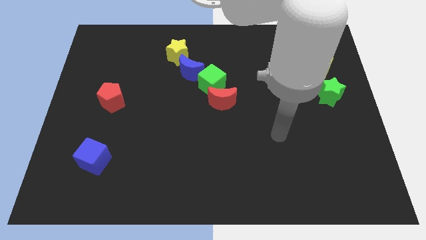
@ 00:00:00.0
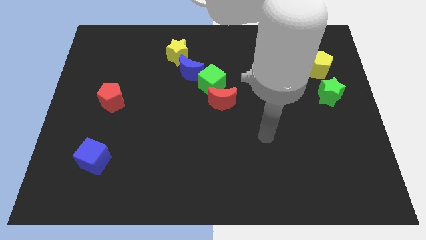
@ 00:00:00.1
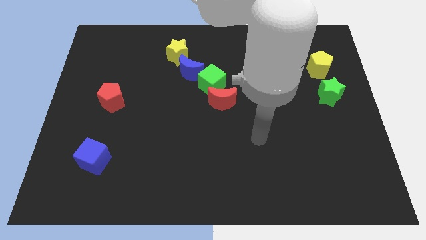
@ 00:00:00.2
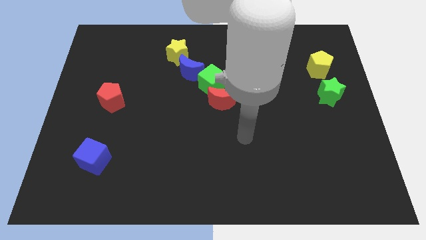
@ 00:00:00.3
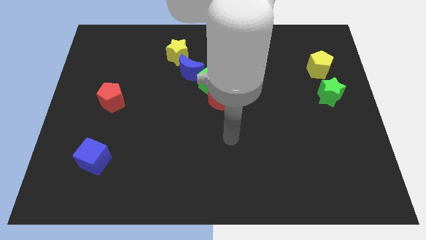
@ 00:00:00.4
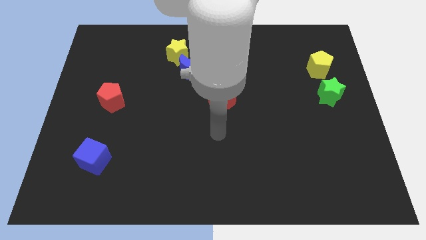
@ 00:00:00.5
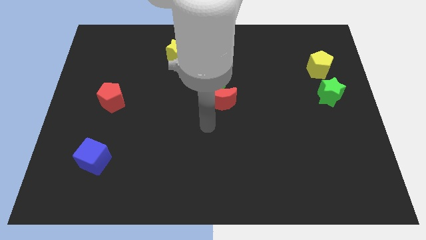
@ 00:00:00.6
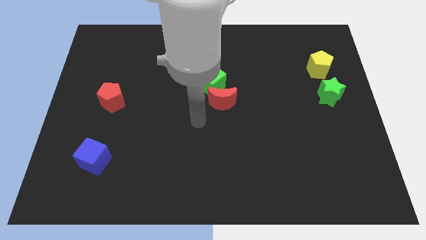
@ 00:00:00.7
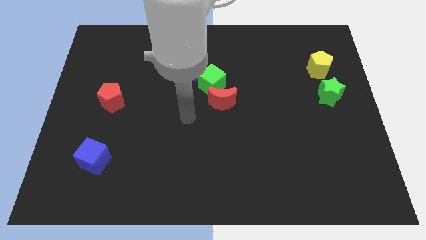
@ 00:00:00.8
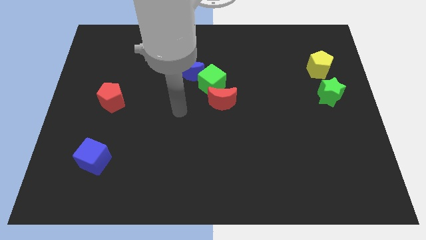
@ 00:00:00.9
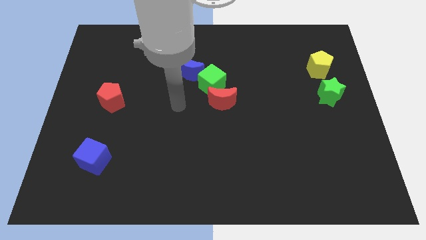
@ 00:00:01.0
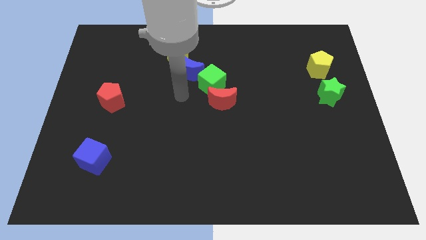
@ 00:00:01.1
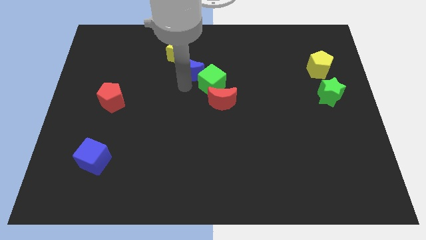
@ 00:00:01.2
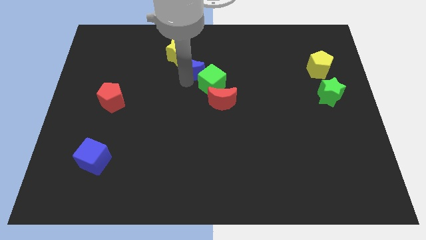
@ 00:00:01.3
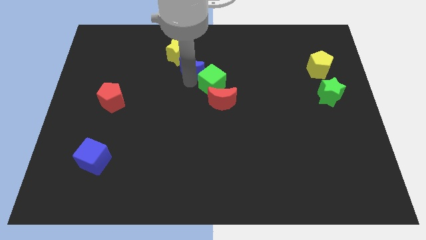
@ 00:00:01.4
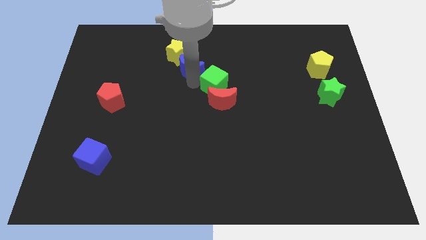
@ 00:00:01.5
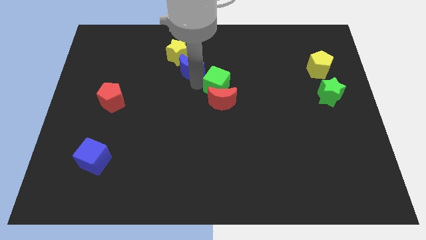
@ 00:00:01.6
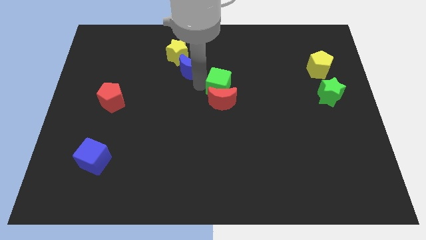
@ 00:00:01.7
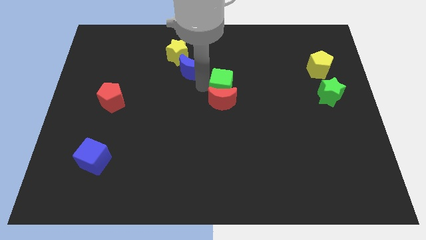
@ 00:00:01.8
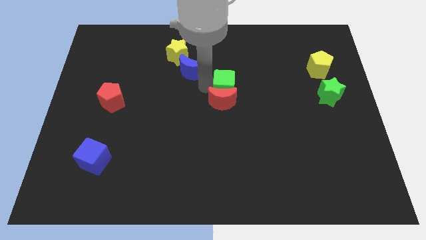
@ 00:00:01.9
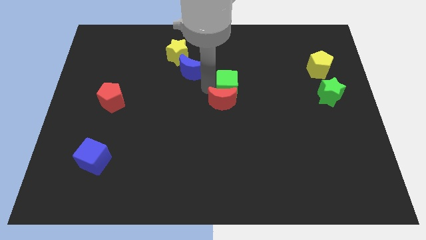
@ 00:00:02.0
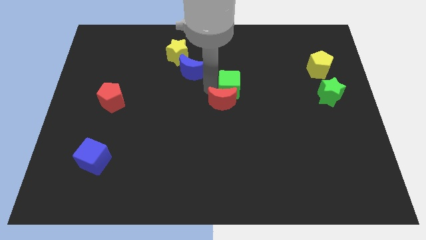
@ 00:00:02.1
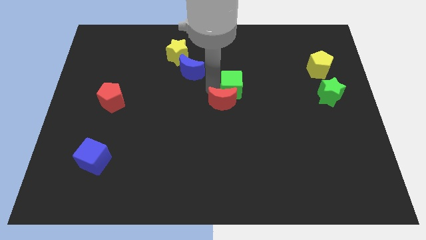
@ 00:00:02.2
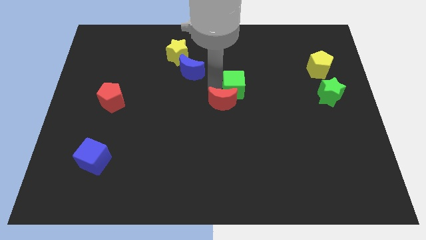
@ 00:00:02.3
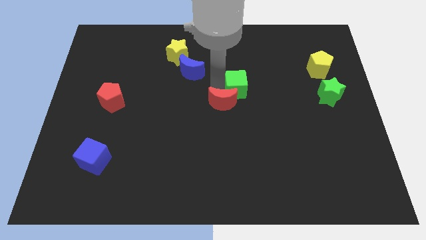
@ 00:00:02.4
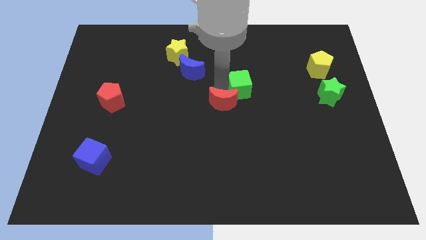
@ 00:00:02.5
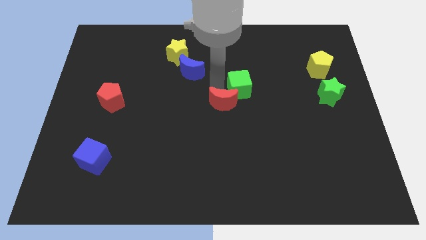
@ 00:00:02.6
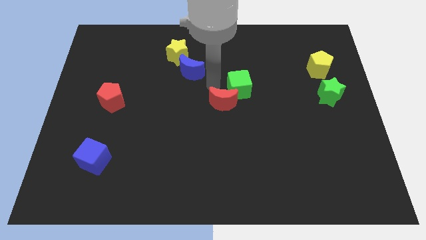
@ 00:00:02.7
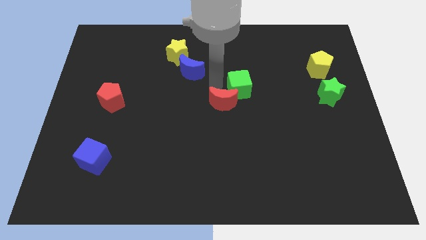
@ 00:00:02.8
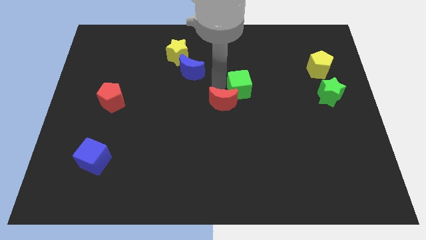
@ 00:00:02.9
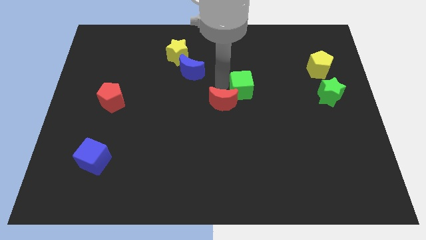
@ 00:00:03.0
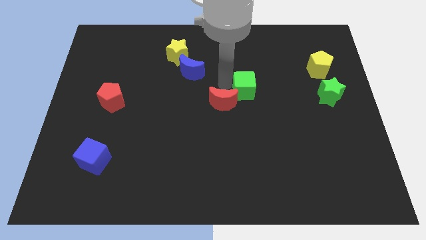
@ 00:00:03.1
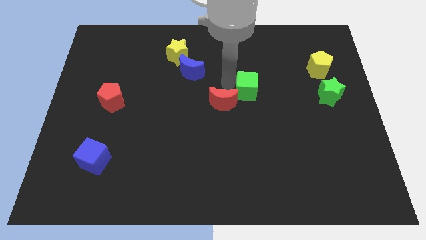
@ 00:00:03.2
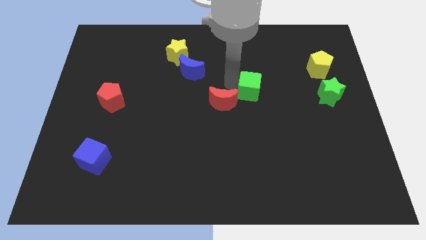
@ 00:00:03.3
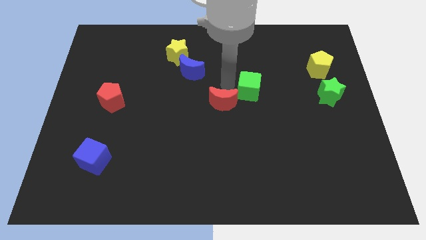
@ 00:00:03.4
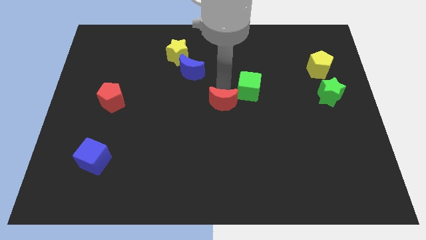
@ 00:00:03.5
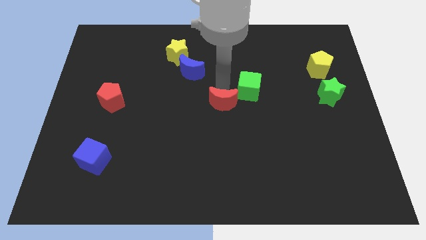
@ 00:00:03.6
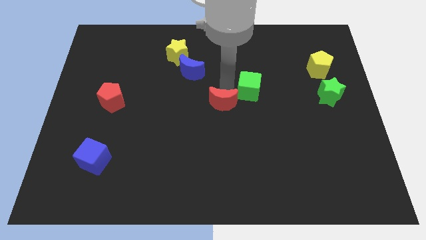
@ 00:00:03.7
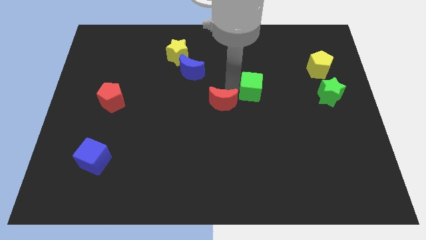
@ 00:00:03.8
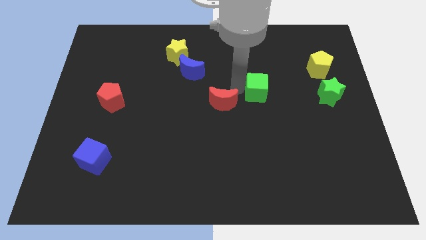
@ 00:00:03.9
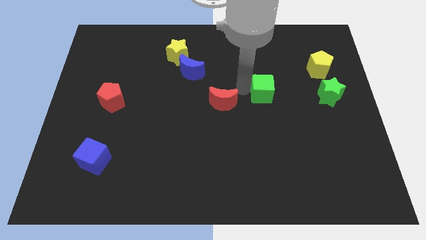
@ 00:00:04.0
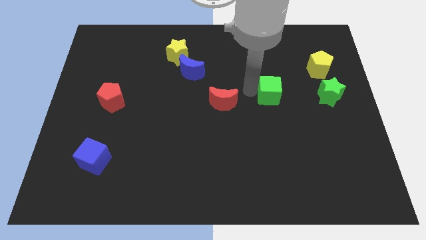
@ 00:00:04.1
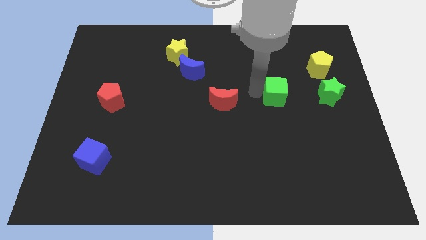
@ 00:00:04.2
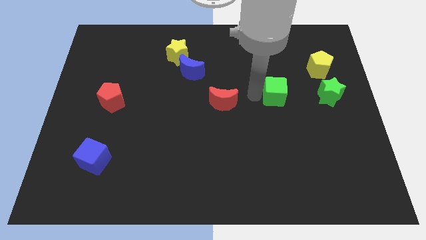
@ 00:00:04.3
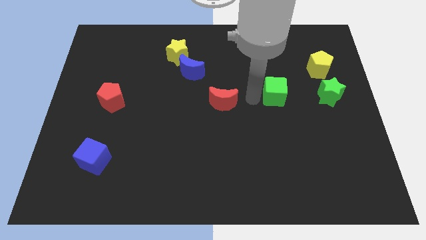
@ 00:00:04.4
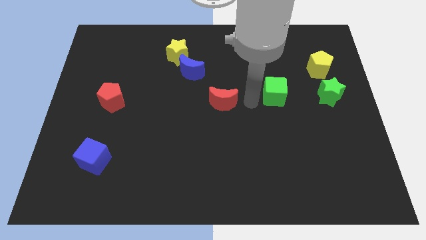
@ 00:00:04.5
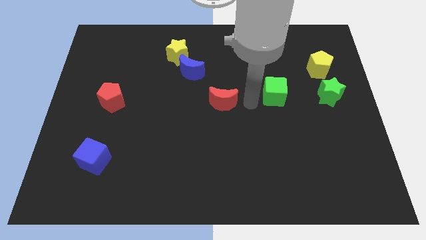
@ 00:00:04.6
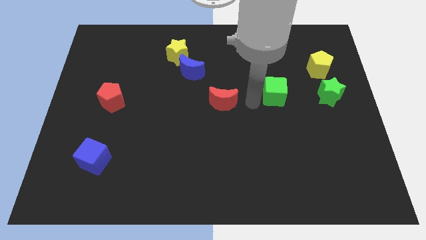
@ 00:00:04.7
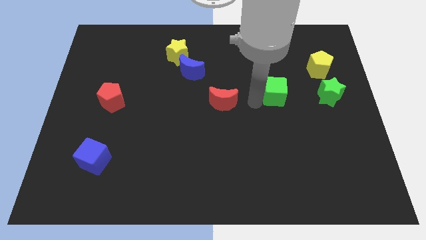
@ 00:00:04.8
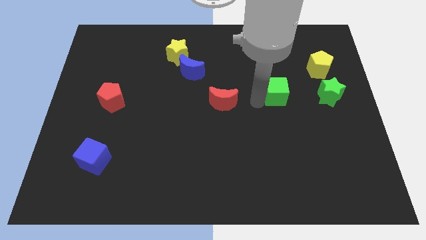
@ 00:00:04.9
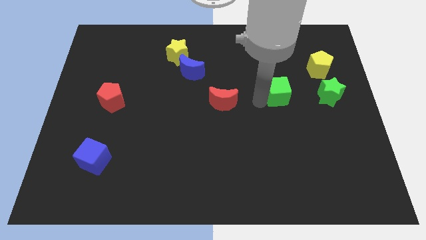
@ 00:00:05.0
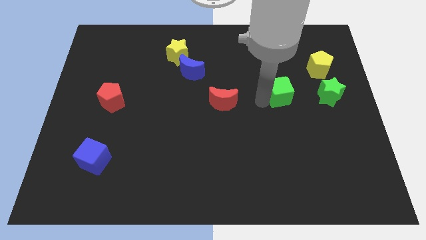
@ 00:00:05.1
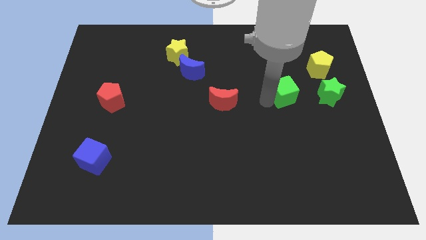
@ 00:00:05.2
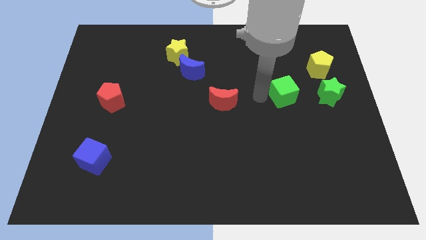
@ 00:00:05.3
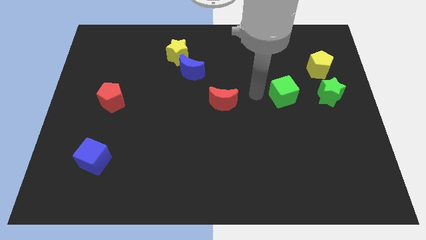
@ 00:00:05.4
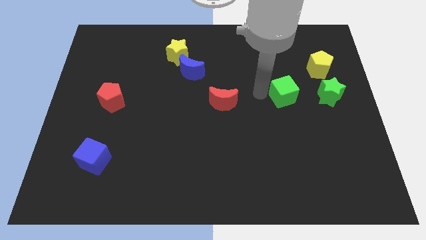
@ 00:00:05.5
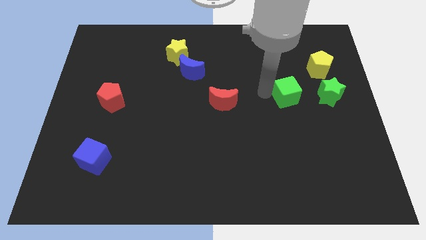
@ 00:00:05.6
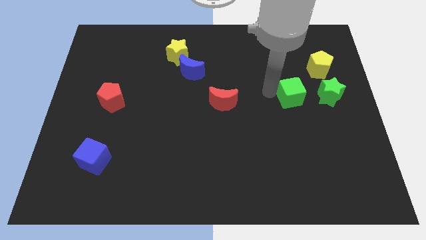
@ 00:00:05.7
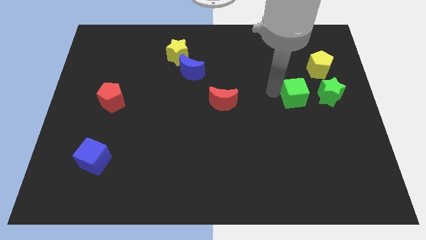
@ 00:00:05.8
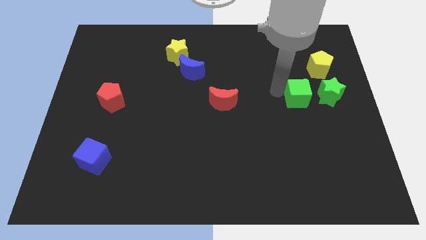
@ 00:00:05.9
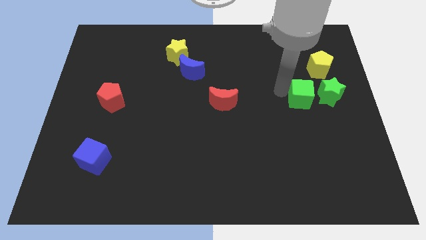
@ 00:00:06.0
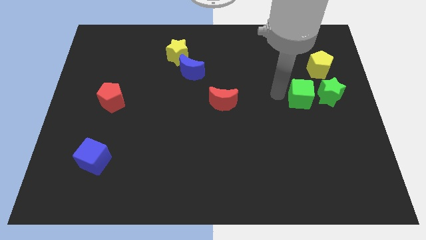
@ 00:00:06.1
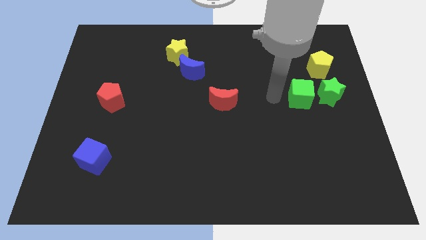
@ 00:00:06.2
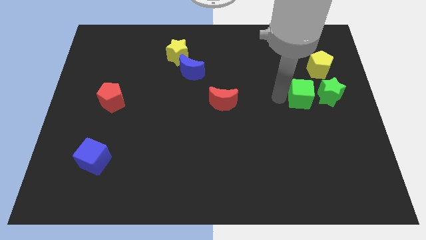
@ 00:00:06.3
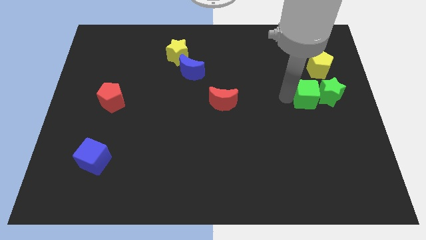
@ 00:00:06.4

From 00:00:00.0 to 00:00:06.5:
slide the green cube to the green star

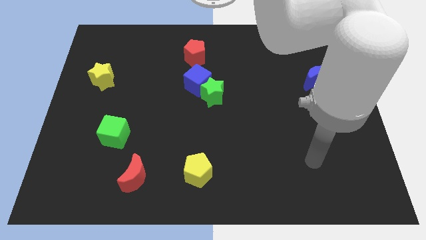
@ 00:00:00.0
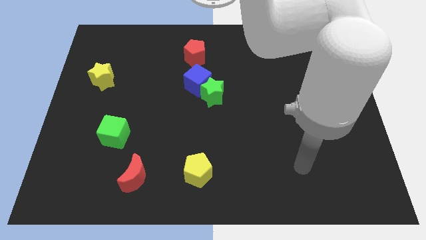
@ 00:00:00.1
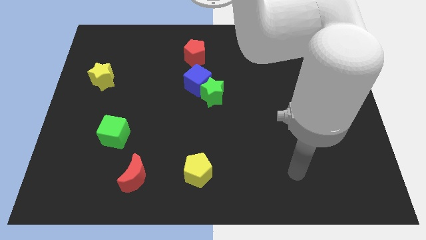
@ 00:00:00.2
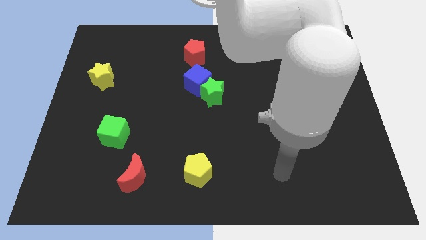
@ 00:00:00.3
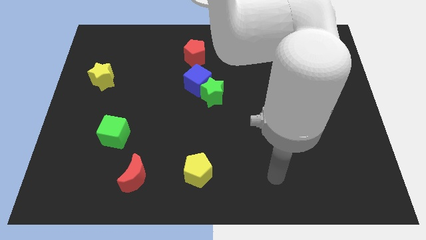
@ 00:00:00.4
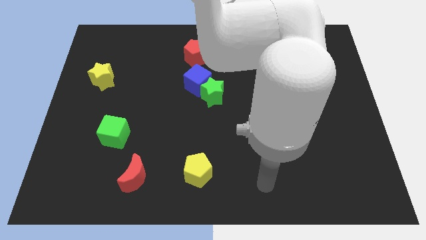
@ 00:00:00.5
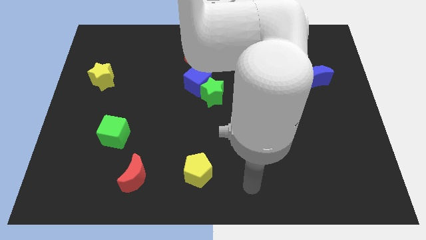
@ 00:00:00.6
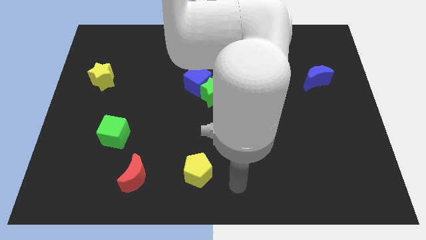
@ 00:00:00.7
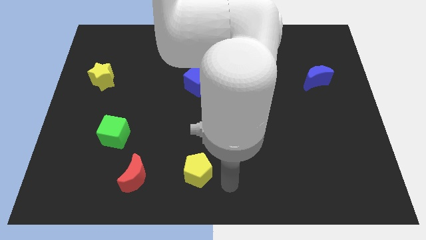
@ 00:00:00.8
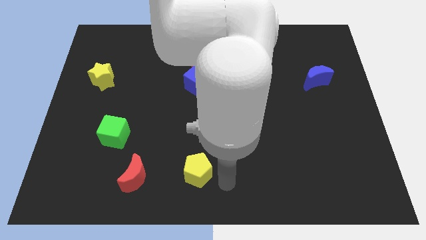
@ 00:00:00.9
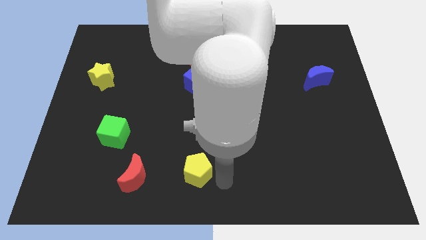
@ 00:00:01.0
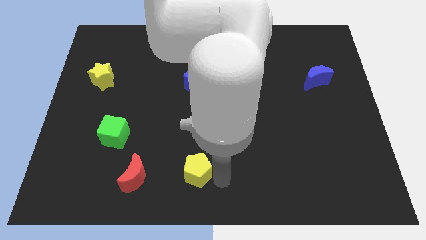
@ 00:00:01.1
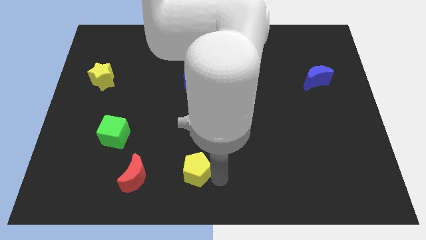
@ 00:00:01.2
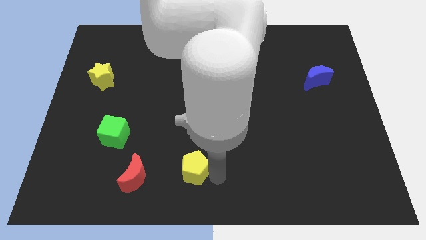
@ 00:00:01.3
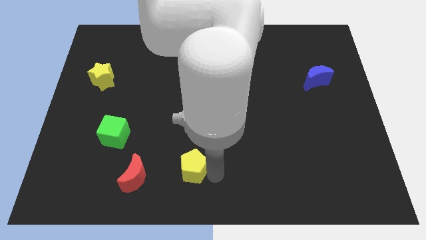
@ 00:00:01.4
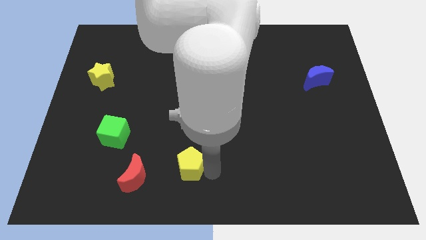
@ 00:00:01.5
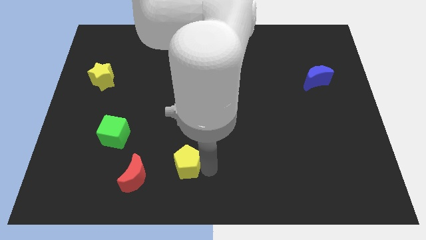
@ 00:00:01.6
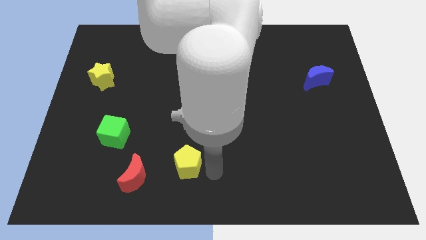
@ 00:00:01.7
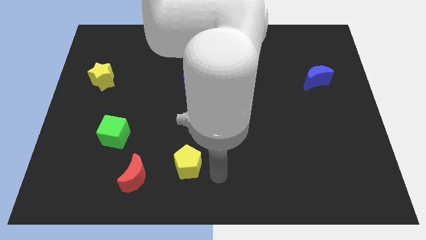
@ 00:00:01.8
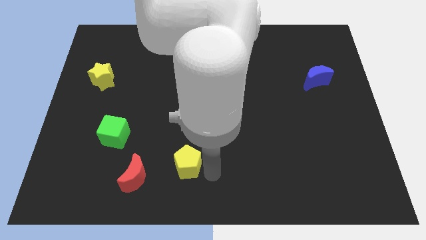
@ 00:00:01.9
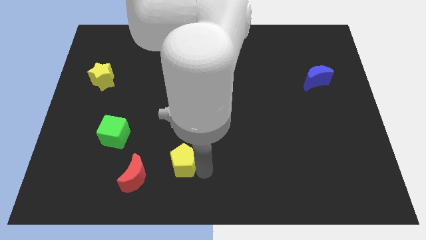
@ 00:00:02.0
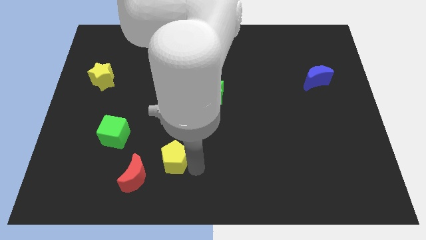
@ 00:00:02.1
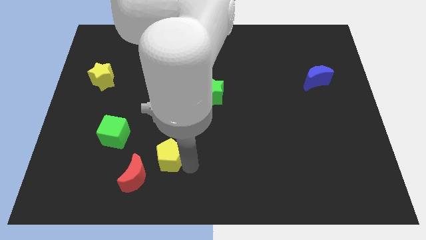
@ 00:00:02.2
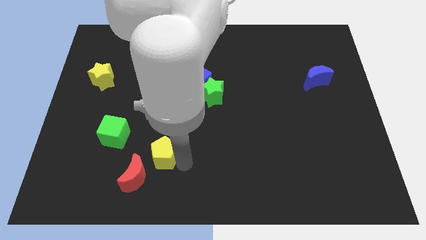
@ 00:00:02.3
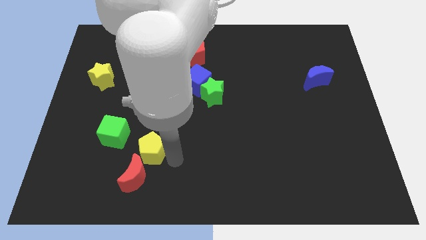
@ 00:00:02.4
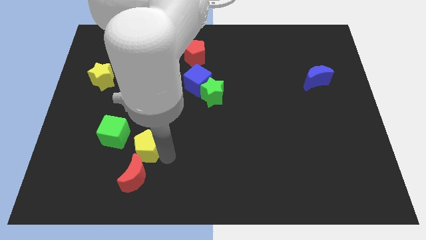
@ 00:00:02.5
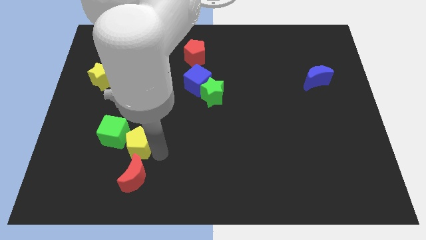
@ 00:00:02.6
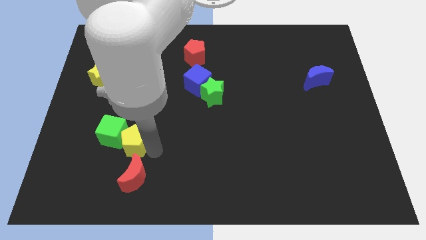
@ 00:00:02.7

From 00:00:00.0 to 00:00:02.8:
put the yellow pentagon to the green cube
